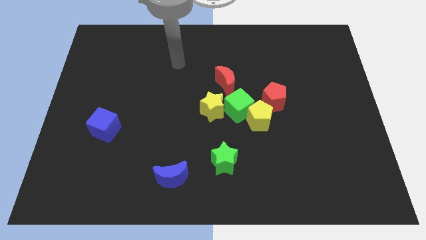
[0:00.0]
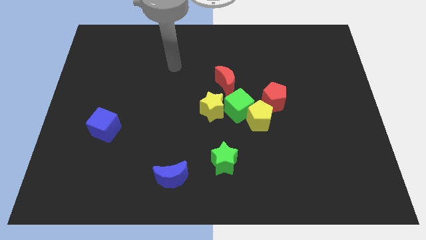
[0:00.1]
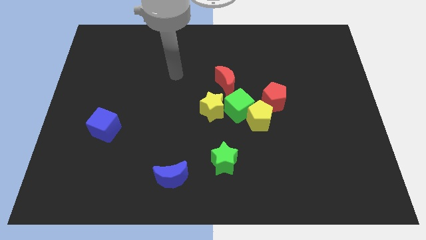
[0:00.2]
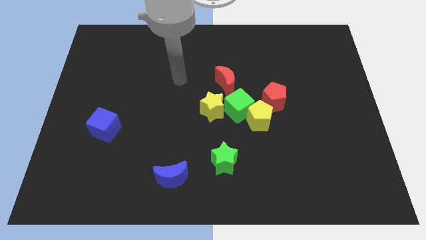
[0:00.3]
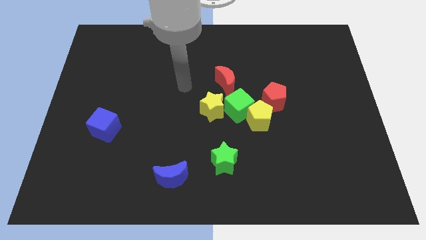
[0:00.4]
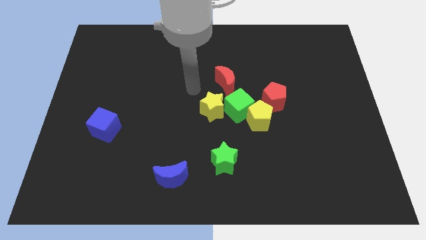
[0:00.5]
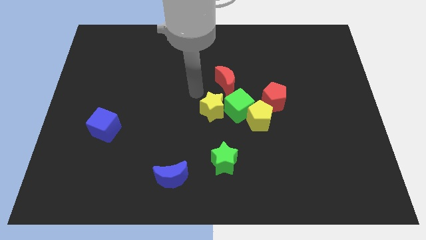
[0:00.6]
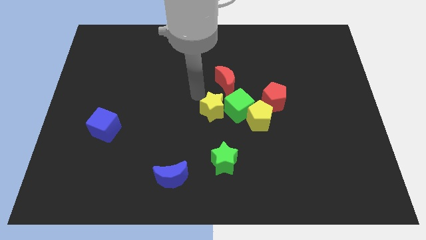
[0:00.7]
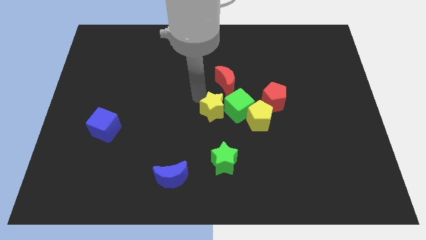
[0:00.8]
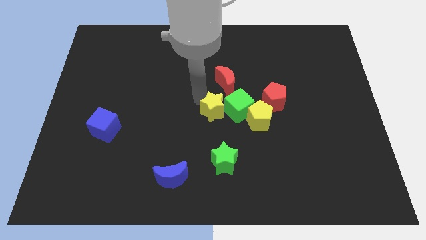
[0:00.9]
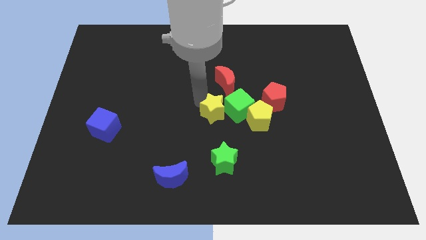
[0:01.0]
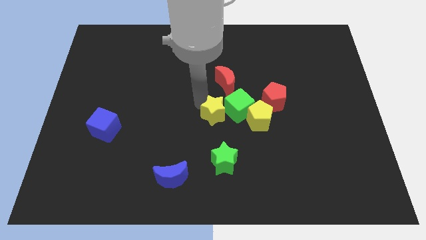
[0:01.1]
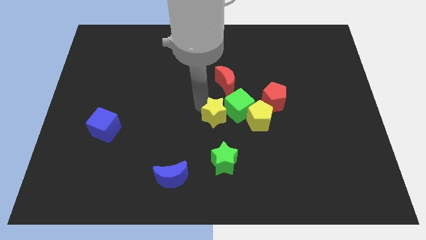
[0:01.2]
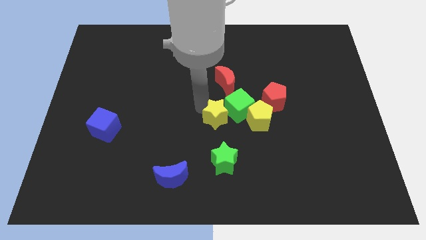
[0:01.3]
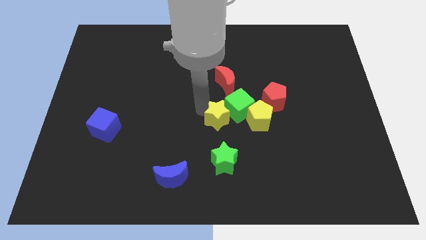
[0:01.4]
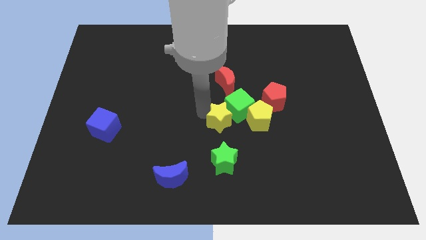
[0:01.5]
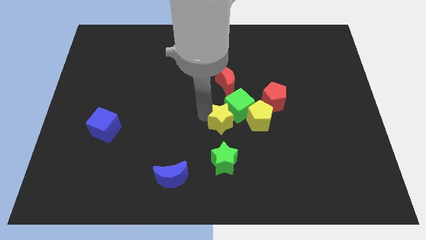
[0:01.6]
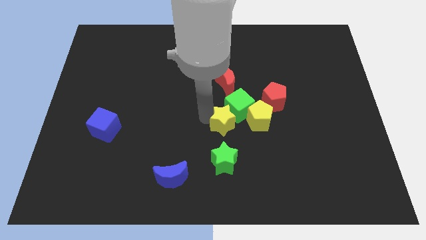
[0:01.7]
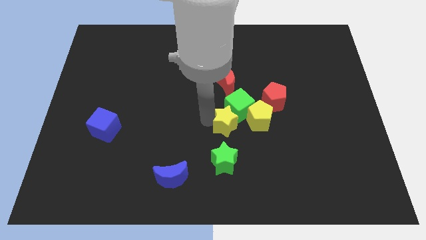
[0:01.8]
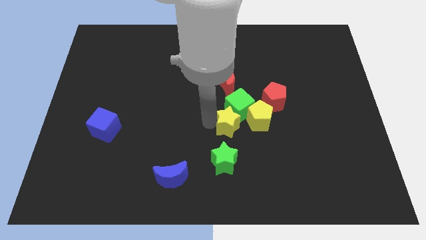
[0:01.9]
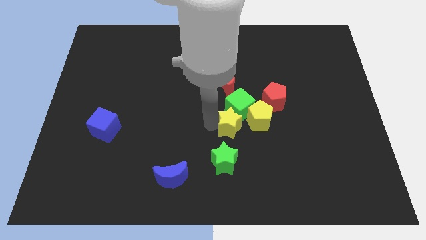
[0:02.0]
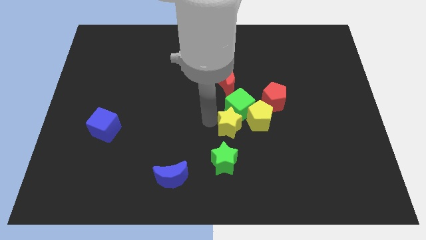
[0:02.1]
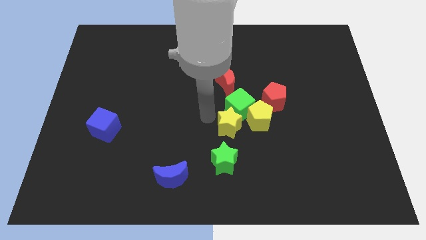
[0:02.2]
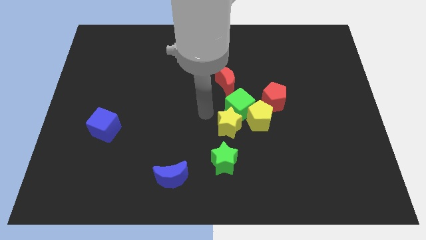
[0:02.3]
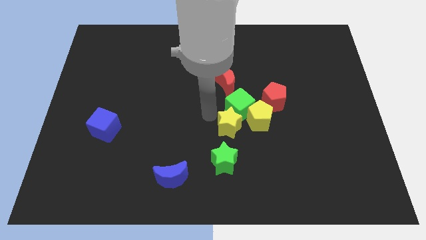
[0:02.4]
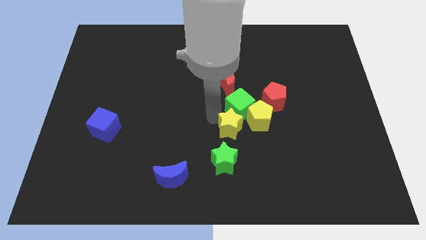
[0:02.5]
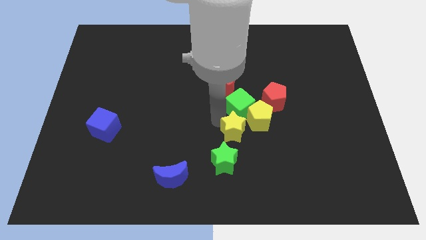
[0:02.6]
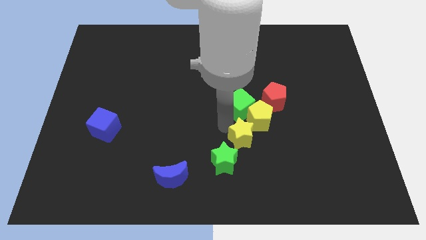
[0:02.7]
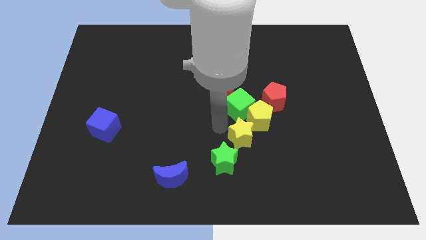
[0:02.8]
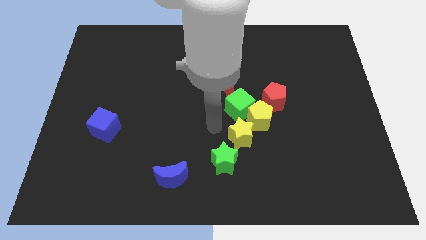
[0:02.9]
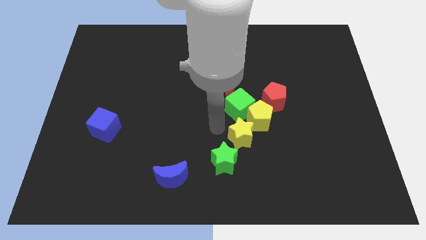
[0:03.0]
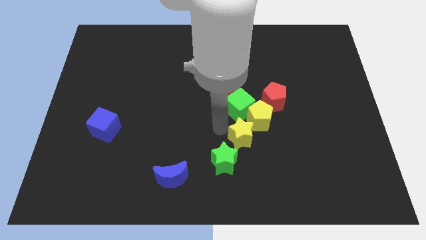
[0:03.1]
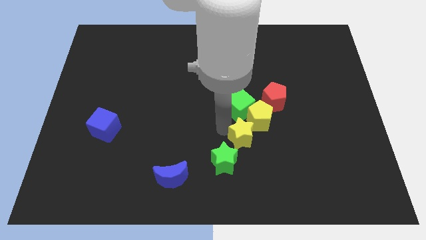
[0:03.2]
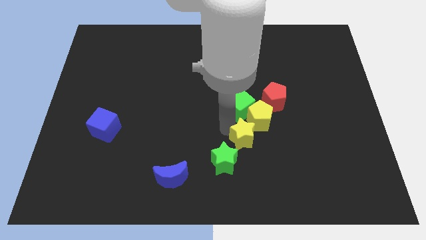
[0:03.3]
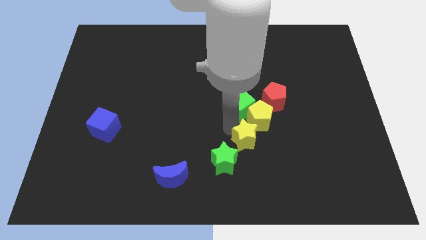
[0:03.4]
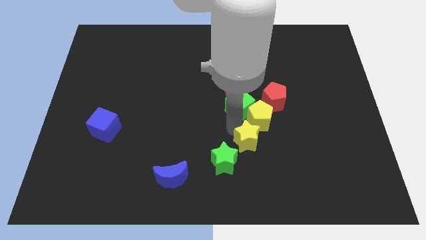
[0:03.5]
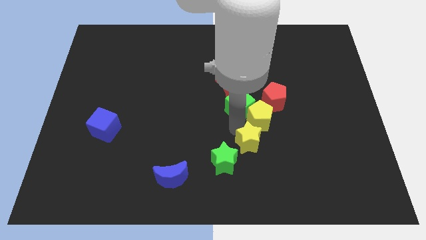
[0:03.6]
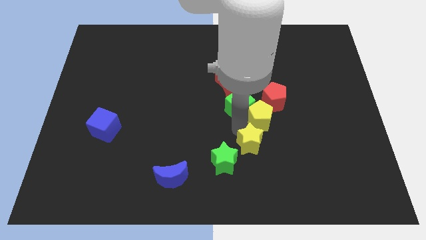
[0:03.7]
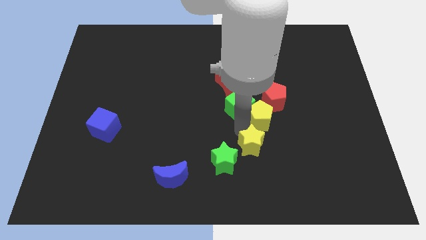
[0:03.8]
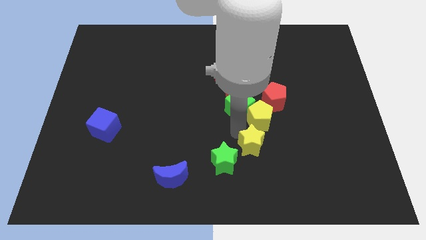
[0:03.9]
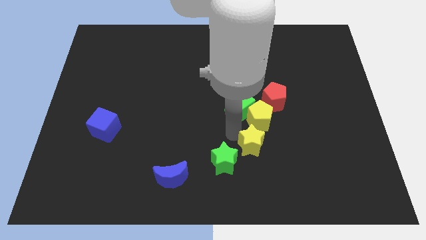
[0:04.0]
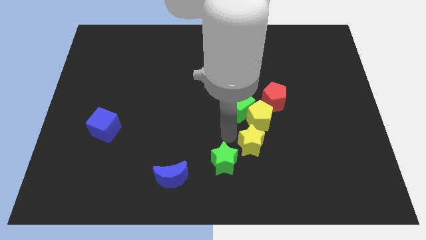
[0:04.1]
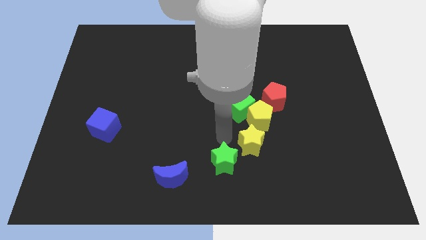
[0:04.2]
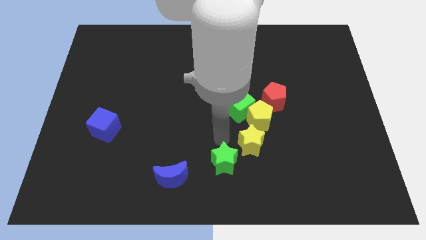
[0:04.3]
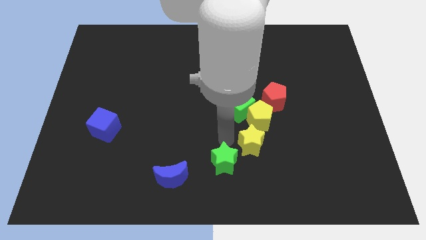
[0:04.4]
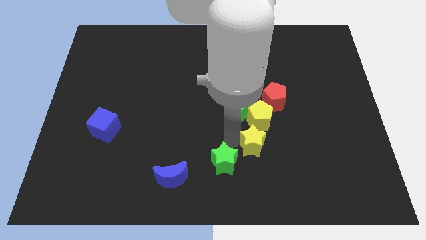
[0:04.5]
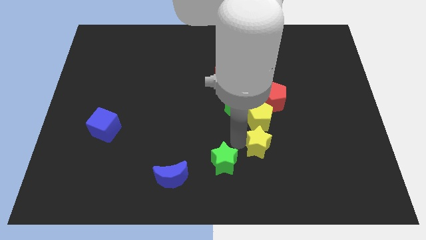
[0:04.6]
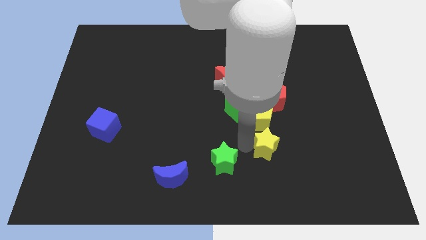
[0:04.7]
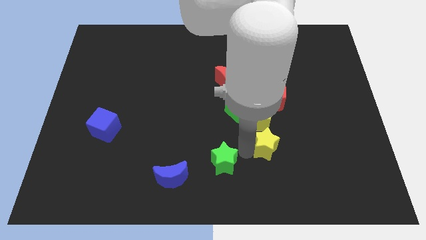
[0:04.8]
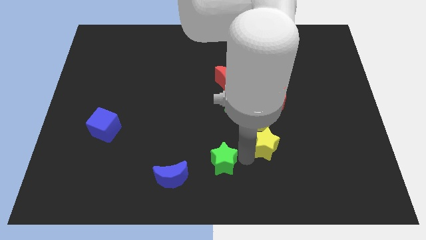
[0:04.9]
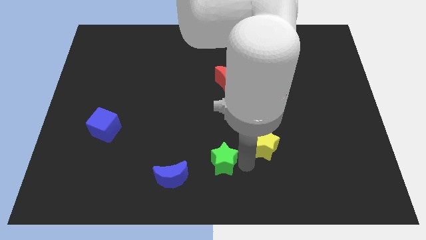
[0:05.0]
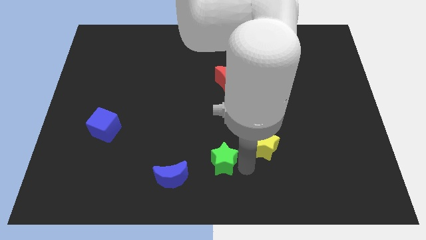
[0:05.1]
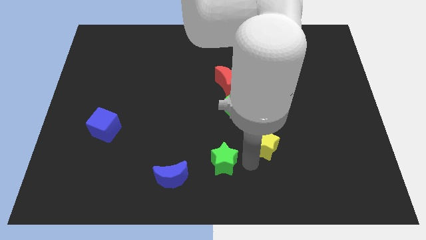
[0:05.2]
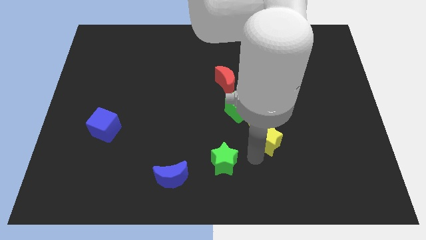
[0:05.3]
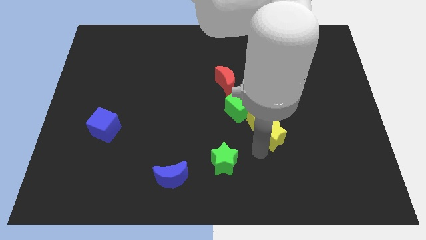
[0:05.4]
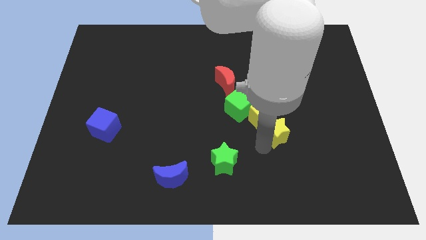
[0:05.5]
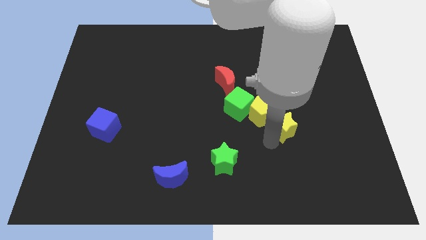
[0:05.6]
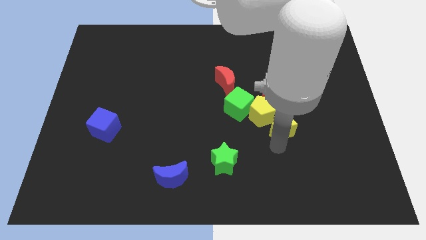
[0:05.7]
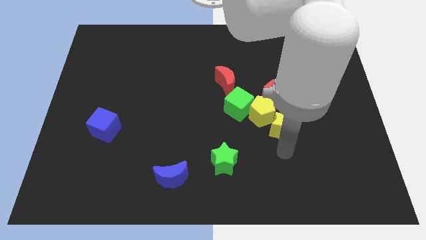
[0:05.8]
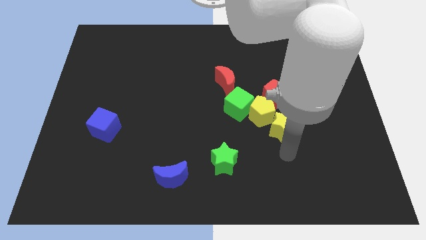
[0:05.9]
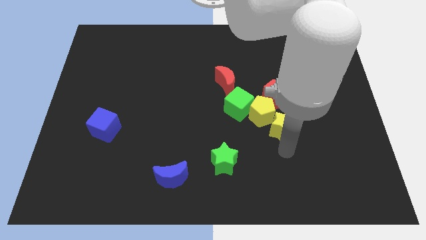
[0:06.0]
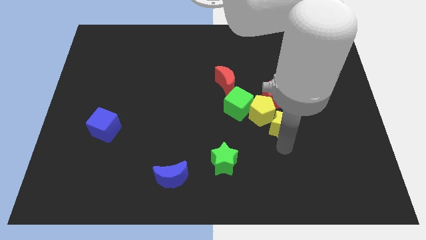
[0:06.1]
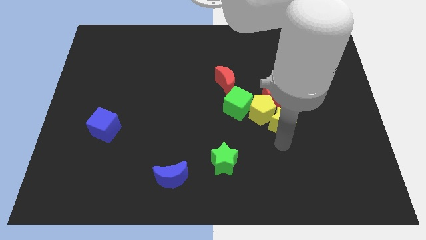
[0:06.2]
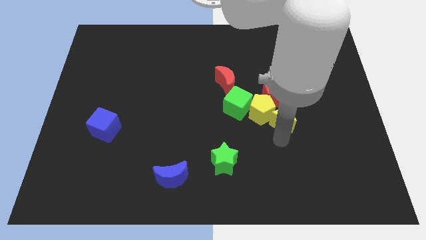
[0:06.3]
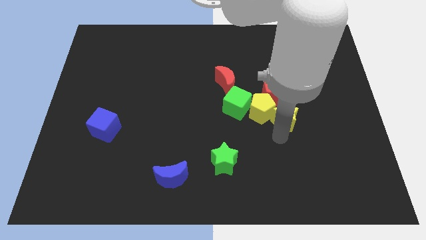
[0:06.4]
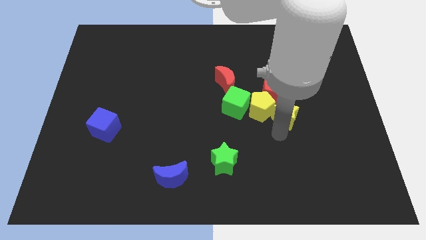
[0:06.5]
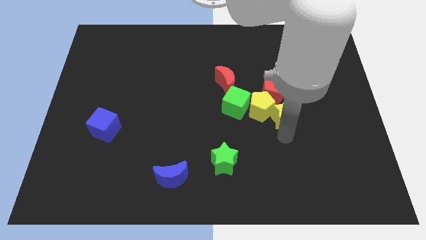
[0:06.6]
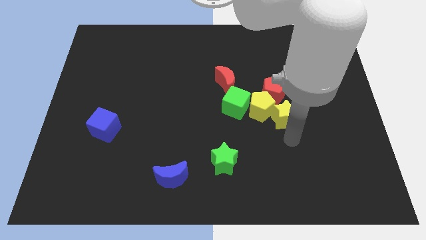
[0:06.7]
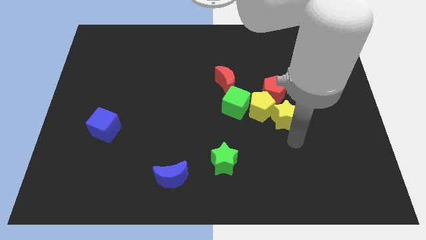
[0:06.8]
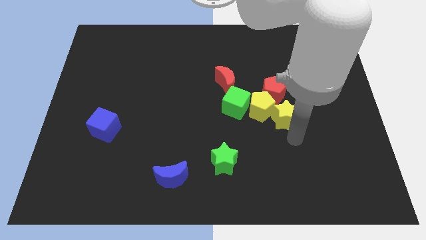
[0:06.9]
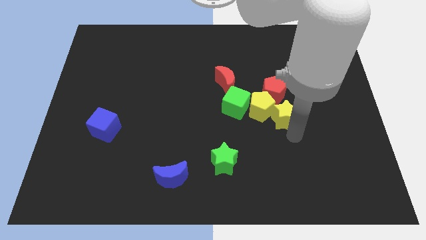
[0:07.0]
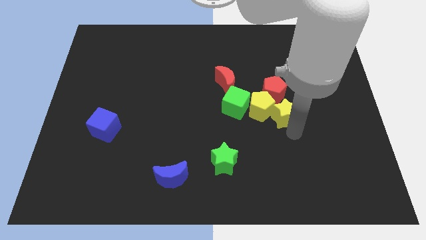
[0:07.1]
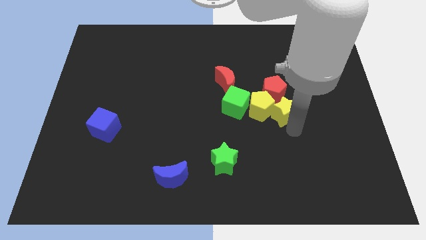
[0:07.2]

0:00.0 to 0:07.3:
put the yellow star next to the red pentagon

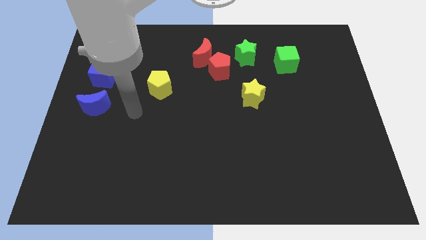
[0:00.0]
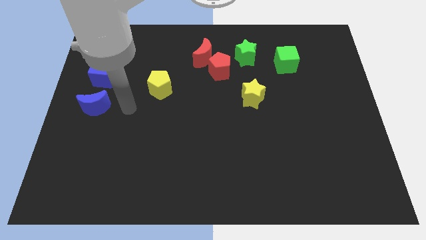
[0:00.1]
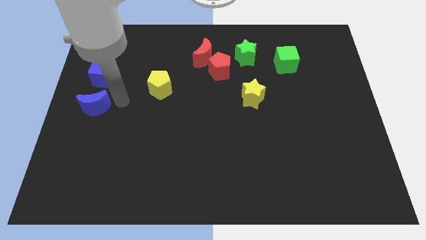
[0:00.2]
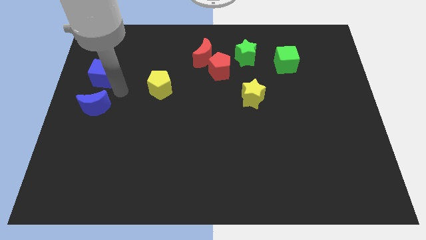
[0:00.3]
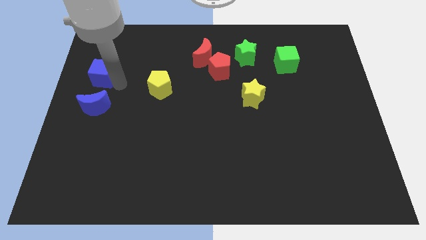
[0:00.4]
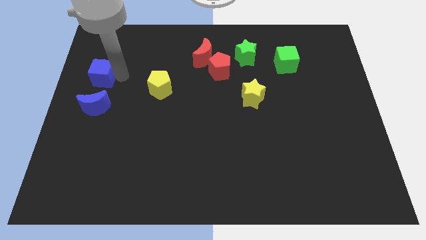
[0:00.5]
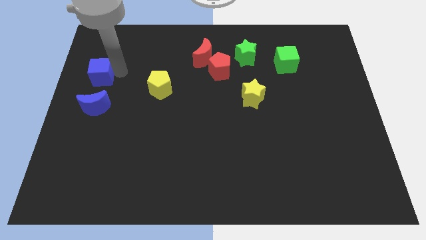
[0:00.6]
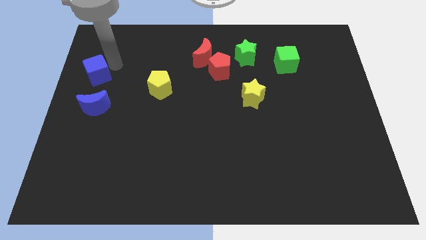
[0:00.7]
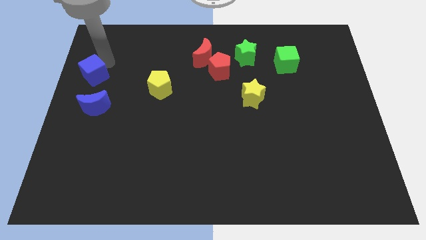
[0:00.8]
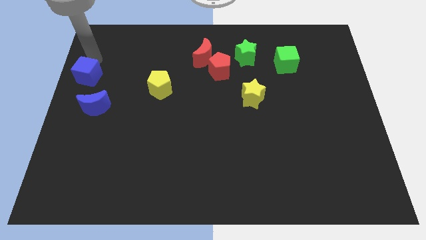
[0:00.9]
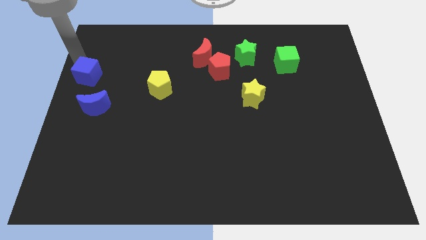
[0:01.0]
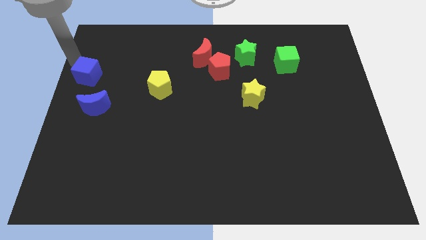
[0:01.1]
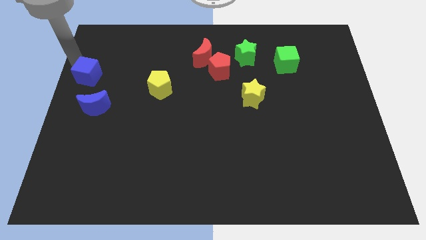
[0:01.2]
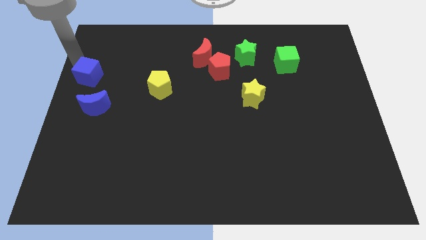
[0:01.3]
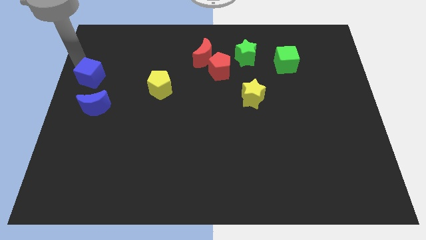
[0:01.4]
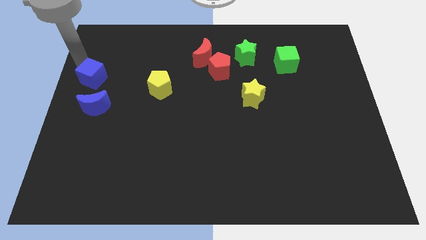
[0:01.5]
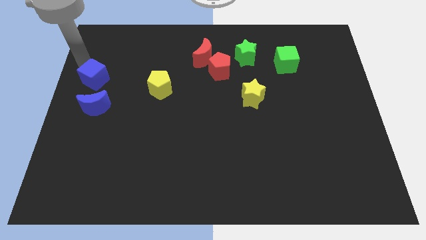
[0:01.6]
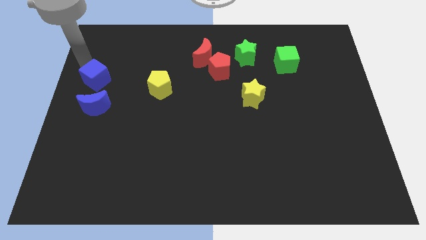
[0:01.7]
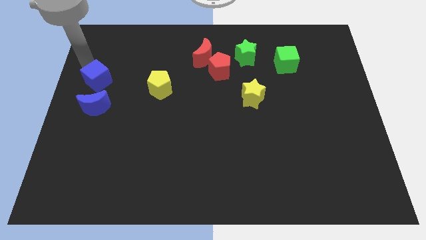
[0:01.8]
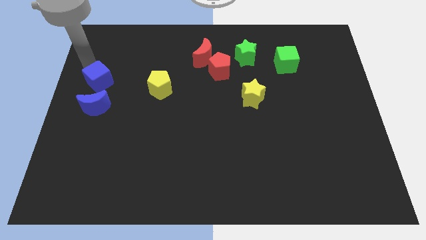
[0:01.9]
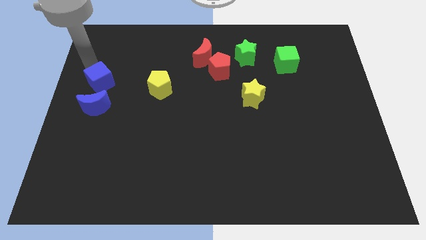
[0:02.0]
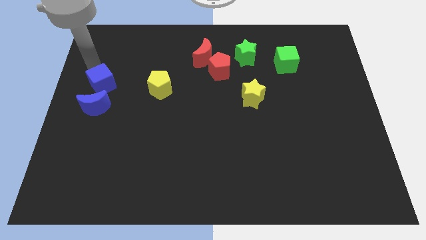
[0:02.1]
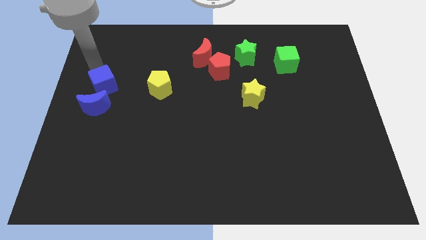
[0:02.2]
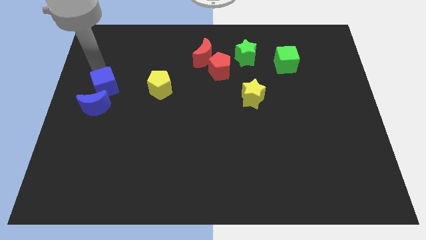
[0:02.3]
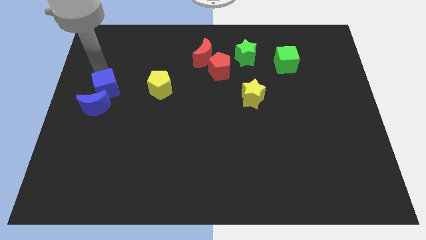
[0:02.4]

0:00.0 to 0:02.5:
move the blue cube to the blue moon
